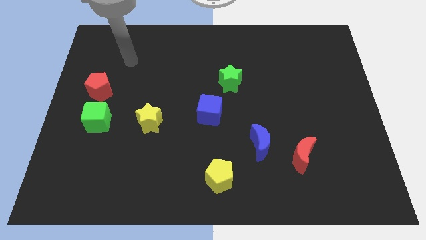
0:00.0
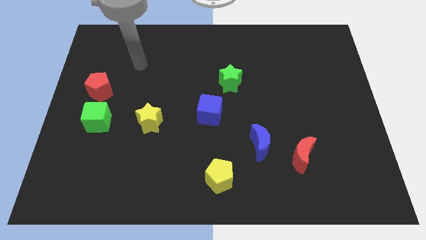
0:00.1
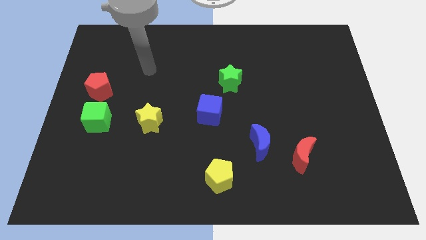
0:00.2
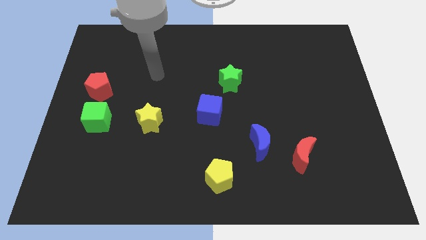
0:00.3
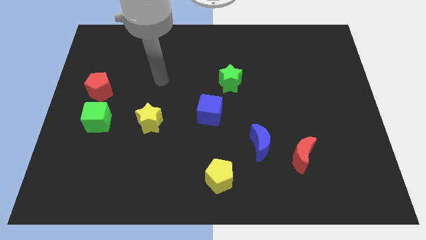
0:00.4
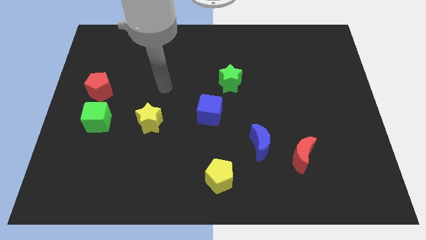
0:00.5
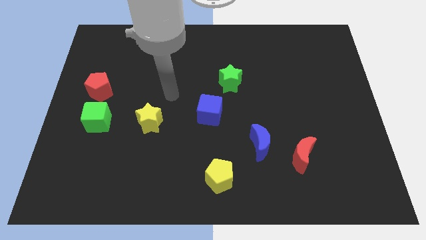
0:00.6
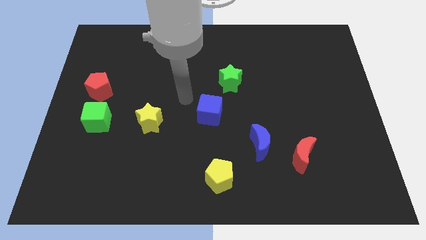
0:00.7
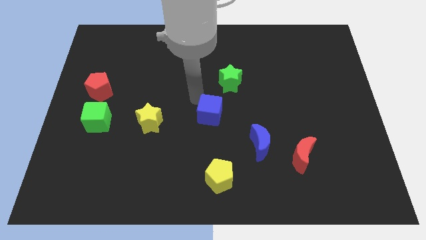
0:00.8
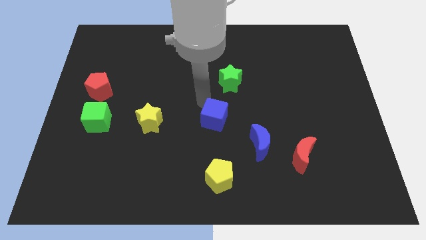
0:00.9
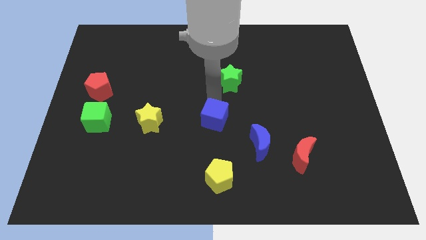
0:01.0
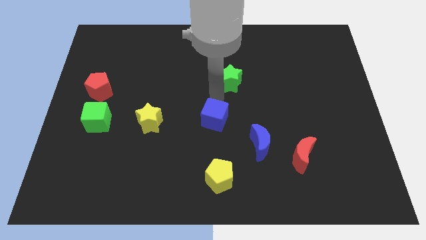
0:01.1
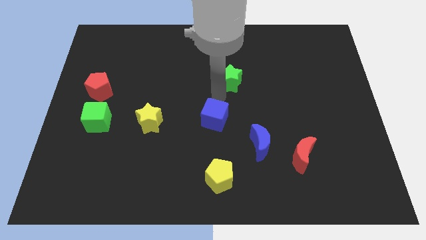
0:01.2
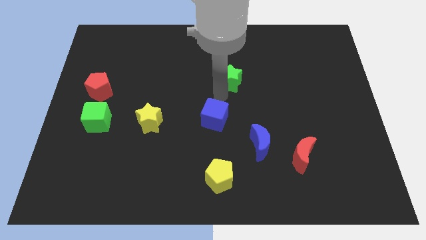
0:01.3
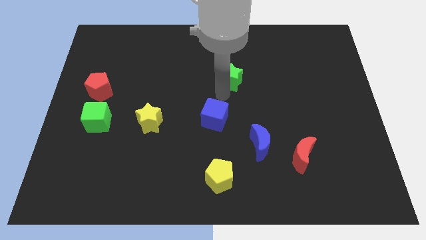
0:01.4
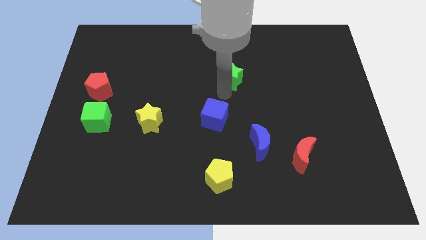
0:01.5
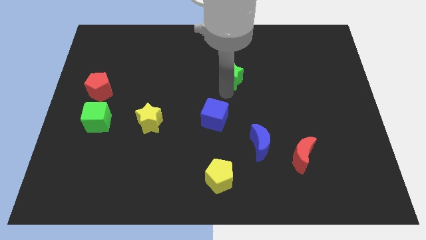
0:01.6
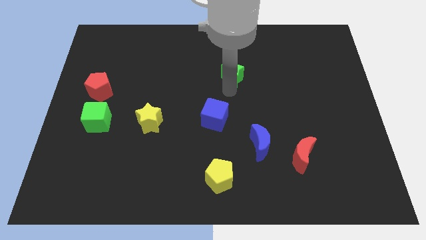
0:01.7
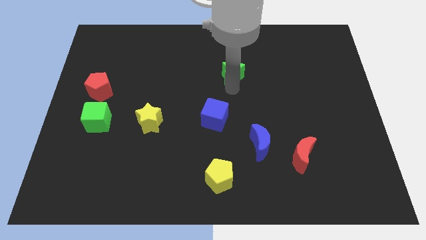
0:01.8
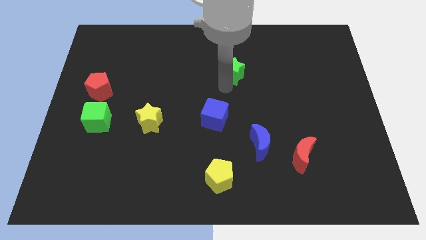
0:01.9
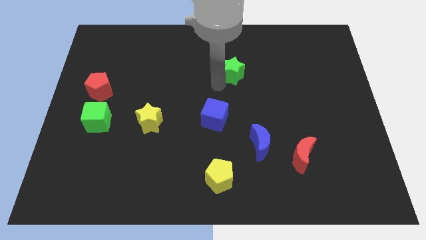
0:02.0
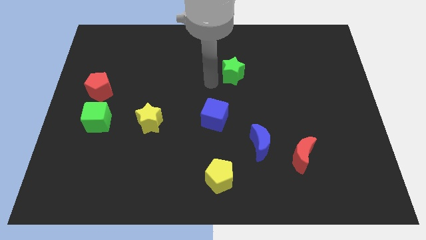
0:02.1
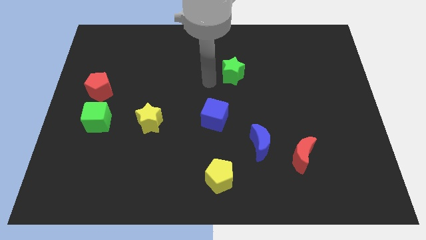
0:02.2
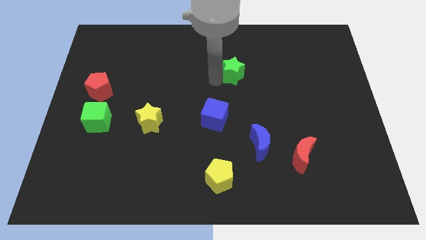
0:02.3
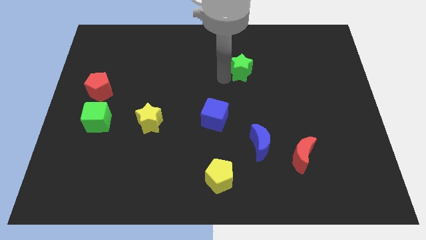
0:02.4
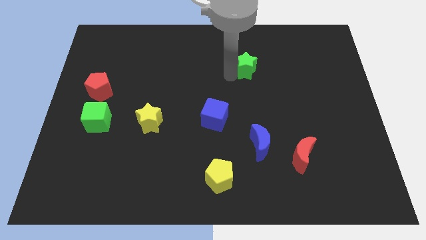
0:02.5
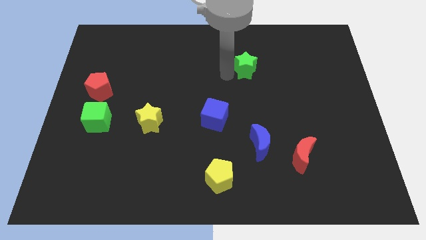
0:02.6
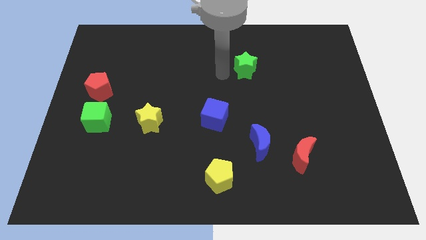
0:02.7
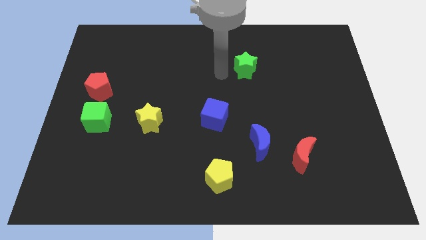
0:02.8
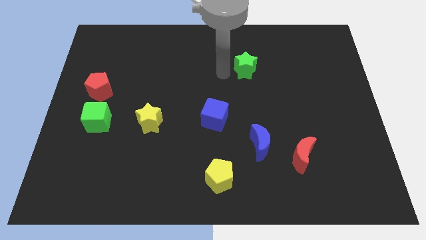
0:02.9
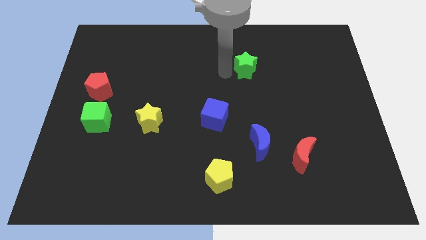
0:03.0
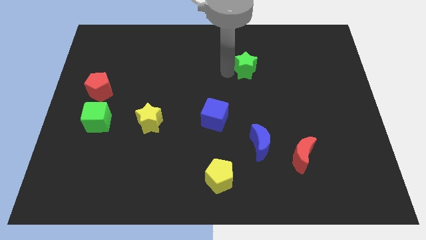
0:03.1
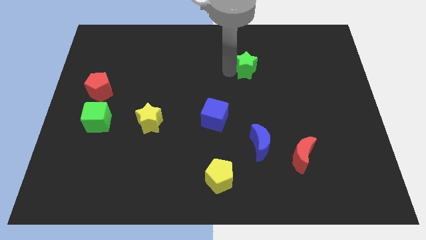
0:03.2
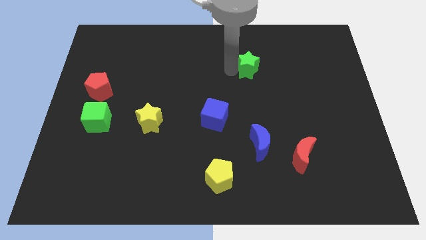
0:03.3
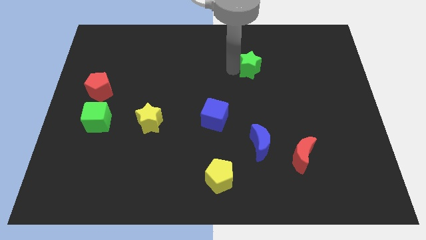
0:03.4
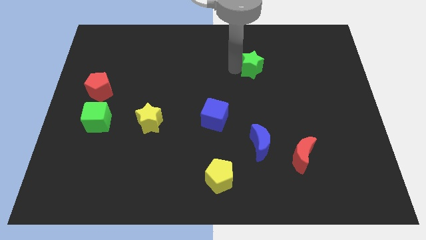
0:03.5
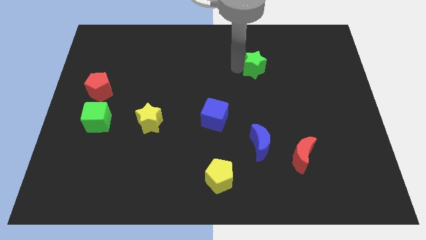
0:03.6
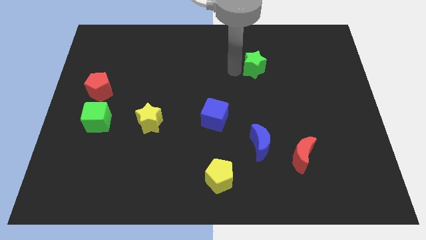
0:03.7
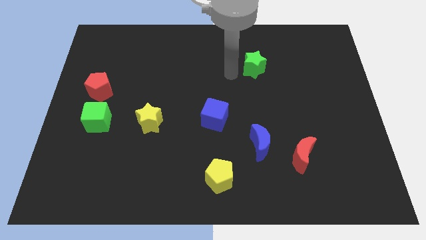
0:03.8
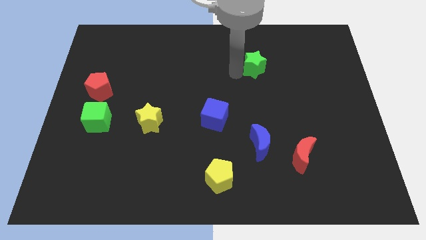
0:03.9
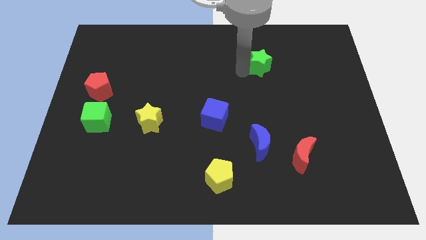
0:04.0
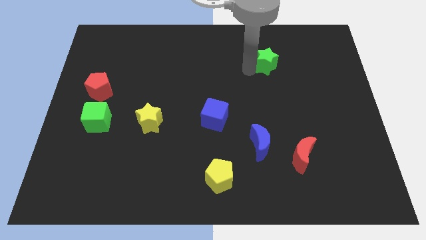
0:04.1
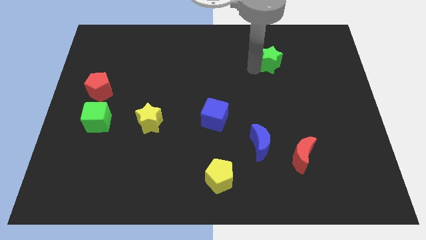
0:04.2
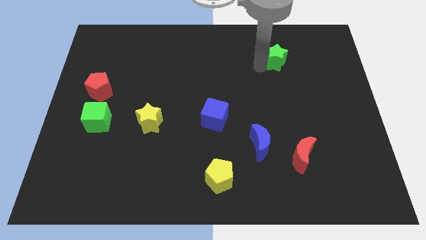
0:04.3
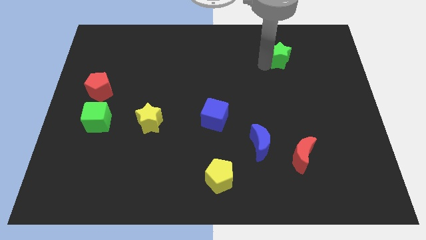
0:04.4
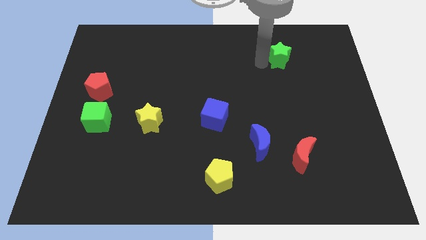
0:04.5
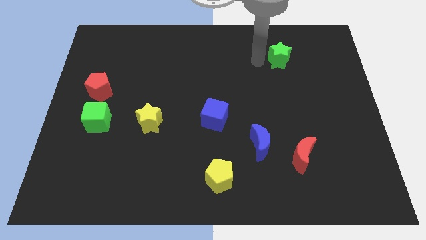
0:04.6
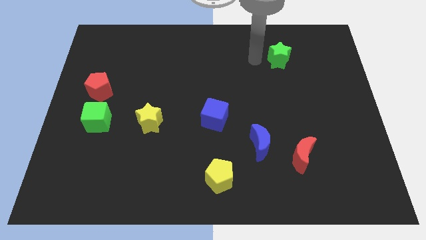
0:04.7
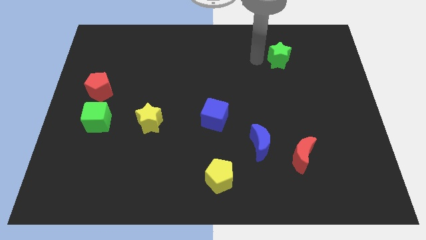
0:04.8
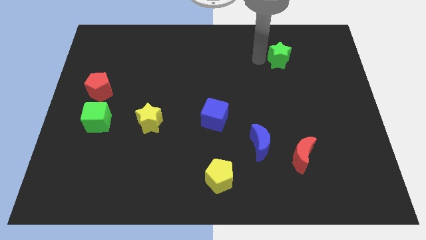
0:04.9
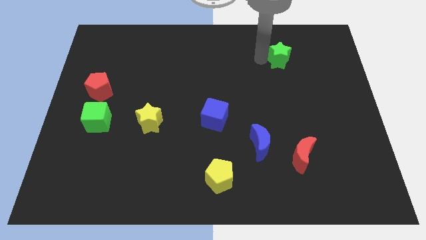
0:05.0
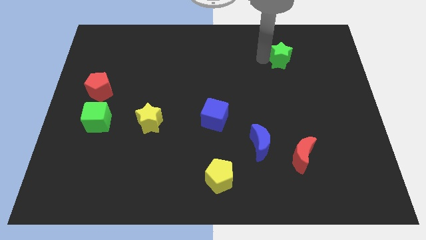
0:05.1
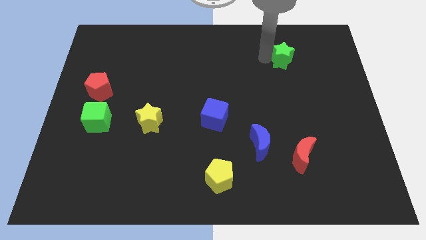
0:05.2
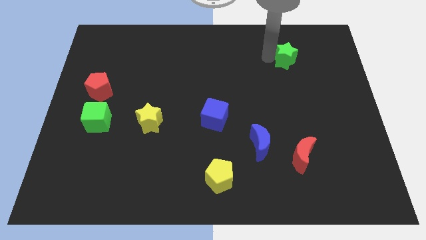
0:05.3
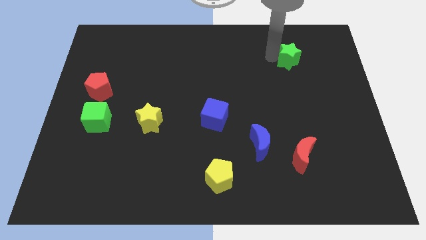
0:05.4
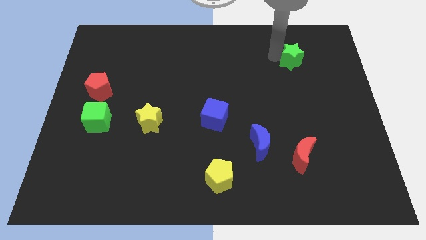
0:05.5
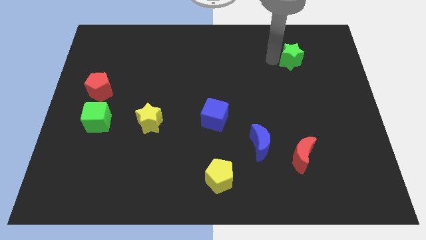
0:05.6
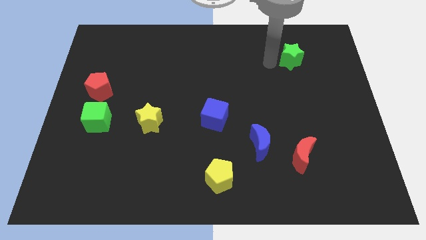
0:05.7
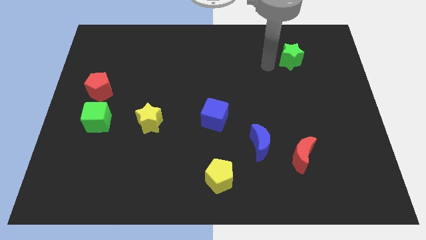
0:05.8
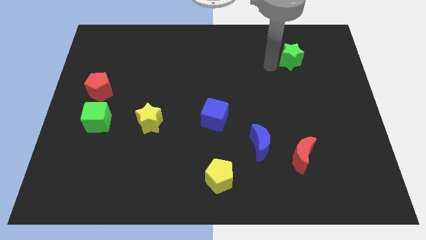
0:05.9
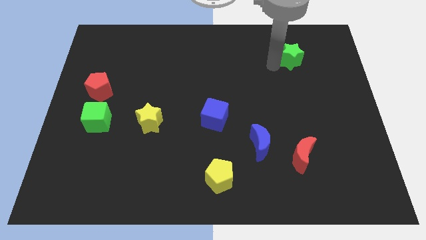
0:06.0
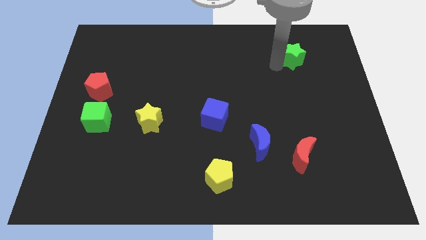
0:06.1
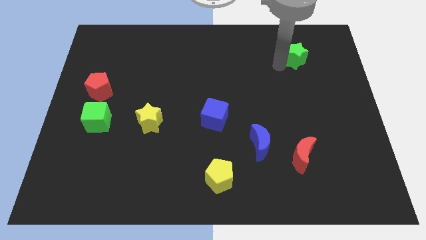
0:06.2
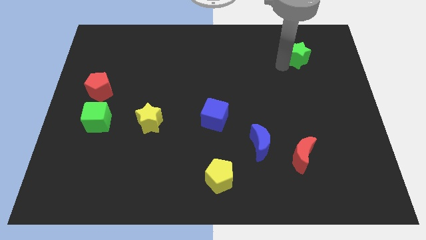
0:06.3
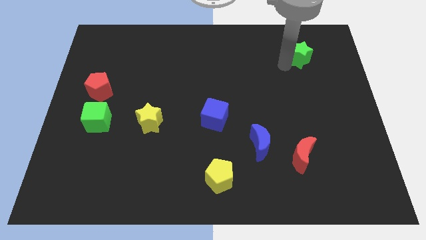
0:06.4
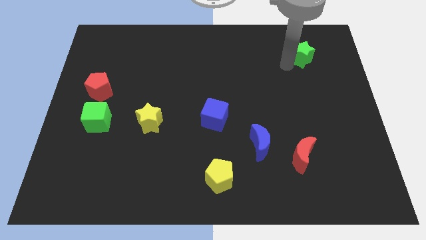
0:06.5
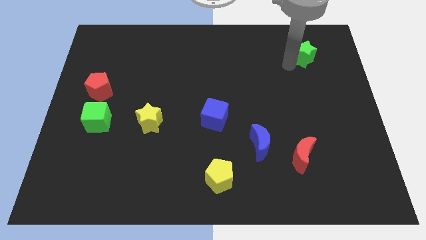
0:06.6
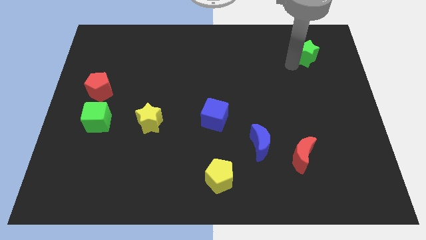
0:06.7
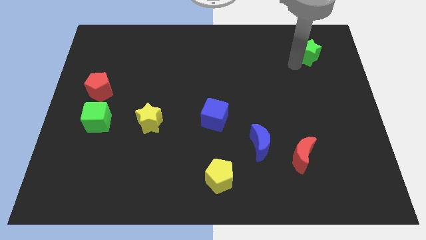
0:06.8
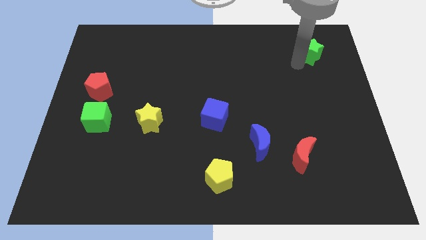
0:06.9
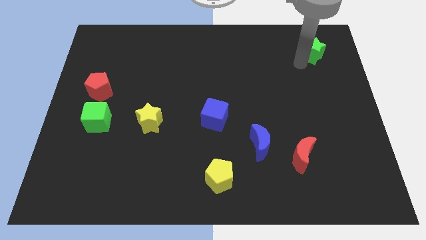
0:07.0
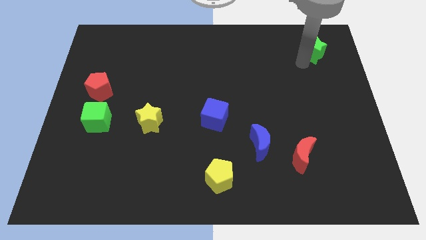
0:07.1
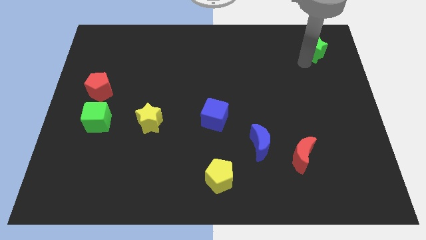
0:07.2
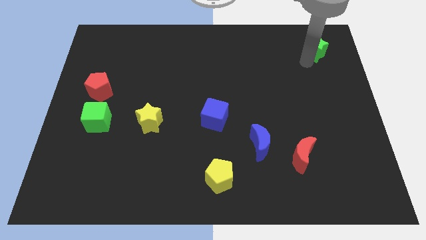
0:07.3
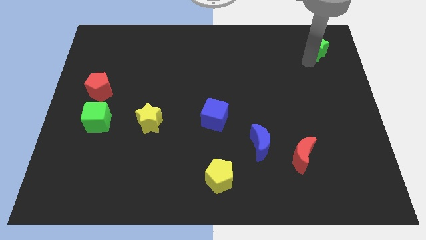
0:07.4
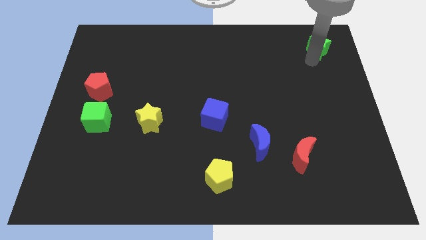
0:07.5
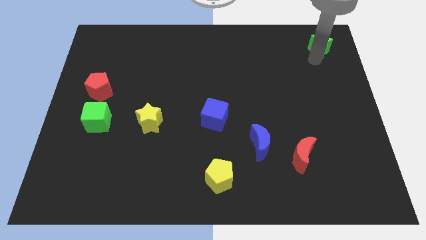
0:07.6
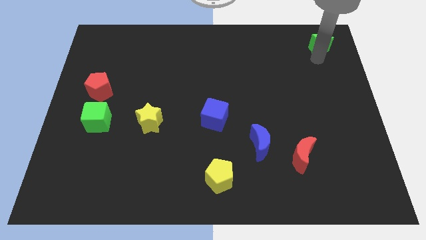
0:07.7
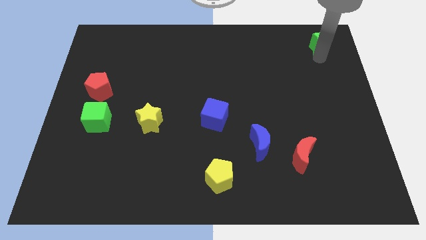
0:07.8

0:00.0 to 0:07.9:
put the green star to the upper right corner
